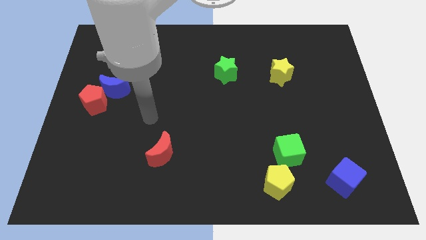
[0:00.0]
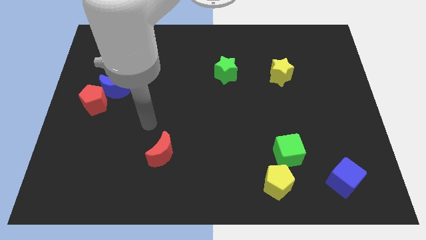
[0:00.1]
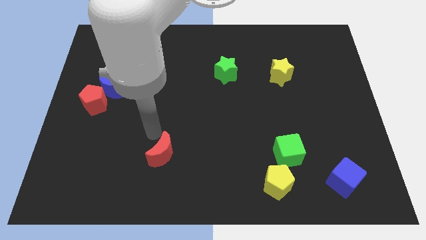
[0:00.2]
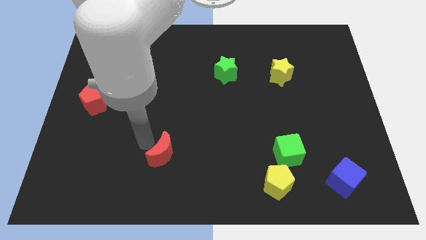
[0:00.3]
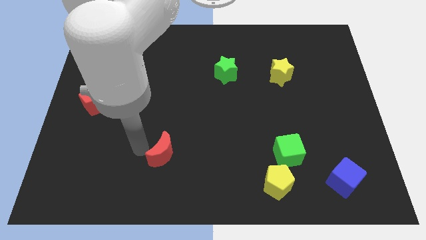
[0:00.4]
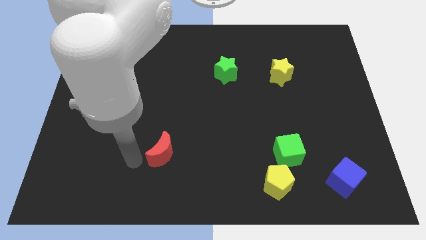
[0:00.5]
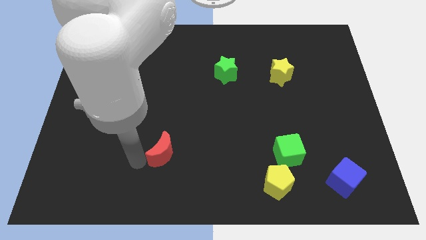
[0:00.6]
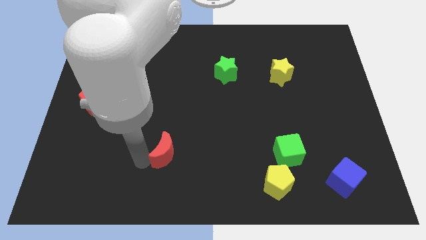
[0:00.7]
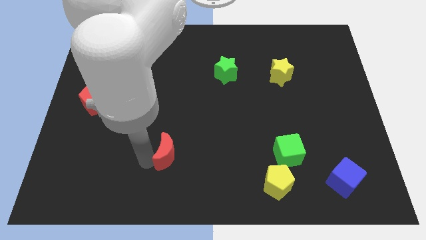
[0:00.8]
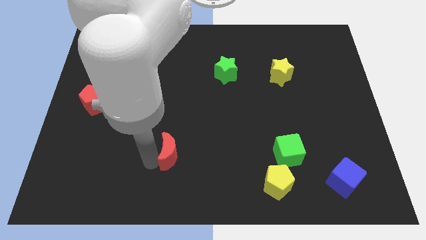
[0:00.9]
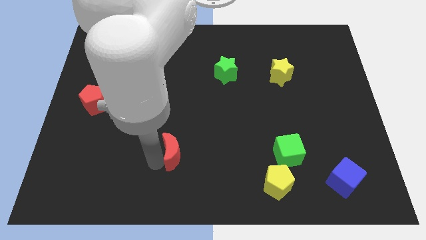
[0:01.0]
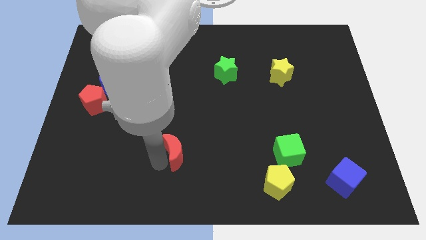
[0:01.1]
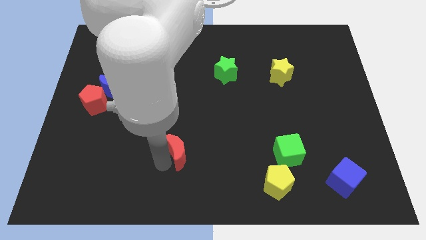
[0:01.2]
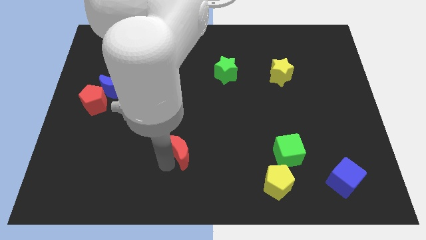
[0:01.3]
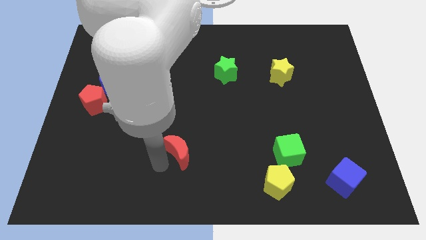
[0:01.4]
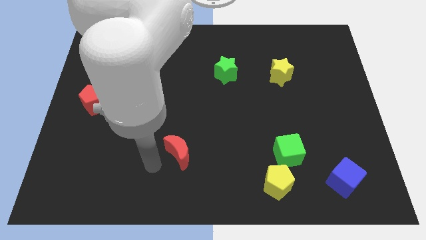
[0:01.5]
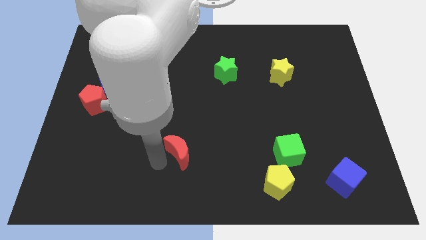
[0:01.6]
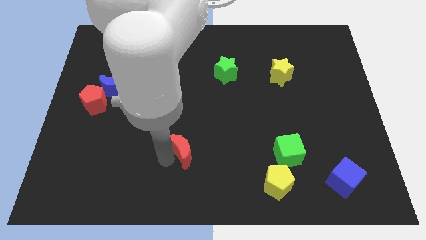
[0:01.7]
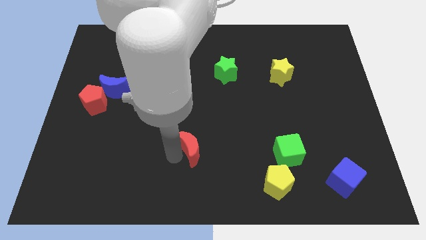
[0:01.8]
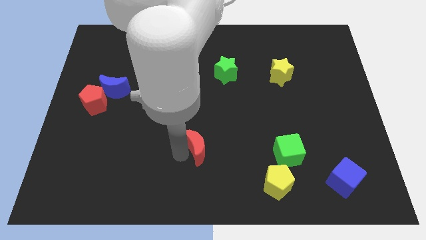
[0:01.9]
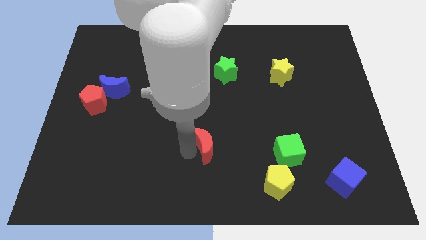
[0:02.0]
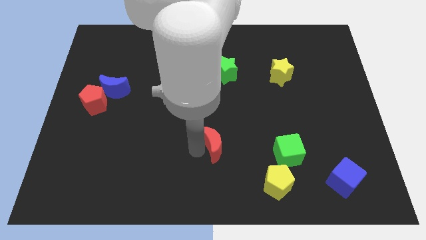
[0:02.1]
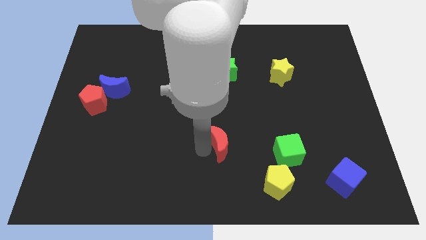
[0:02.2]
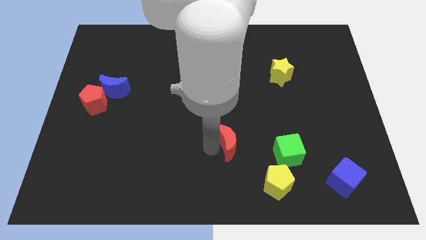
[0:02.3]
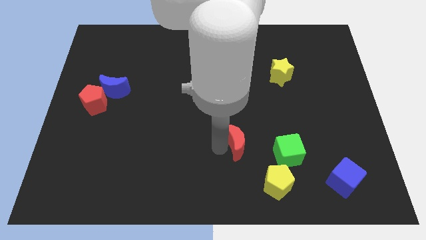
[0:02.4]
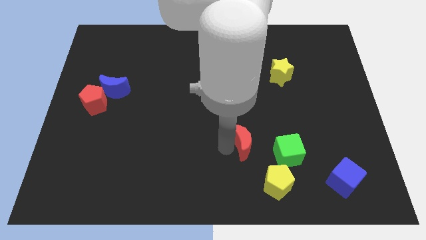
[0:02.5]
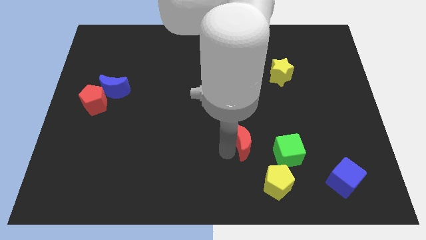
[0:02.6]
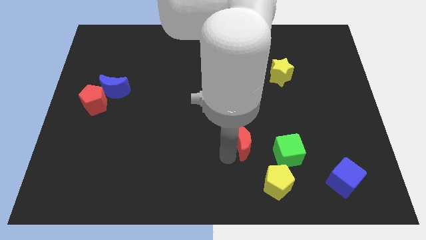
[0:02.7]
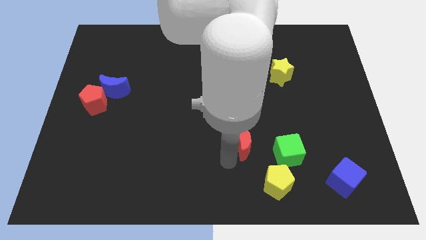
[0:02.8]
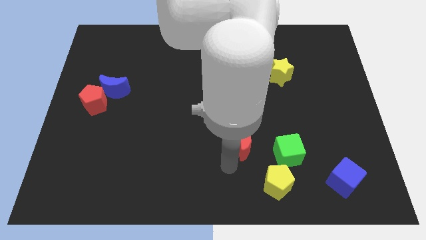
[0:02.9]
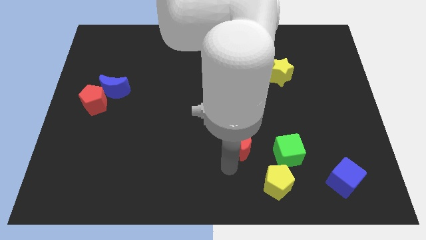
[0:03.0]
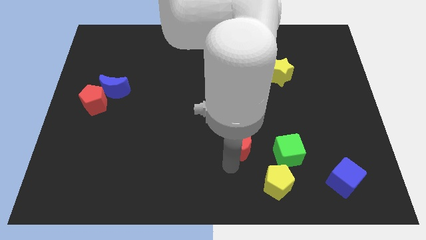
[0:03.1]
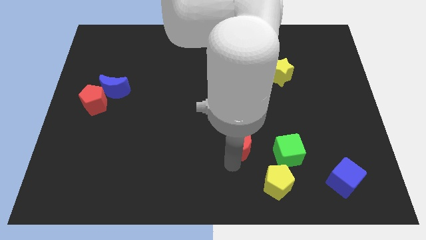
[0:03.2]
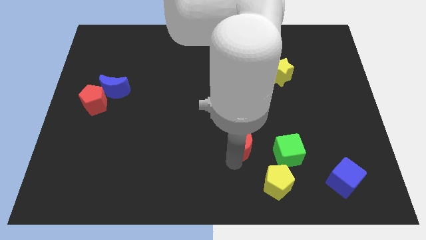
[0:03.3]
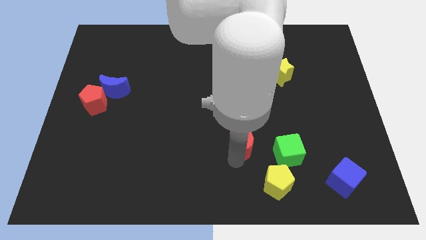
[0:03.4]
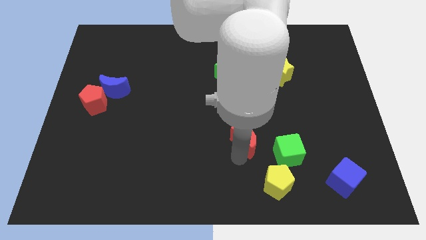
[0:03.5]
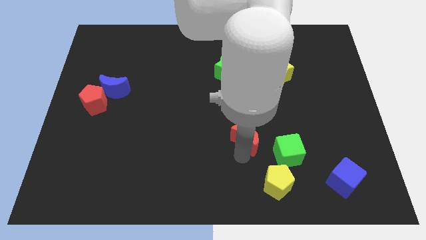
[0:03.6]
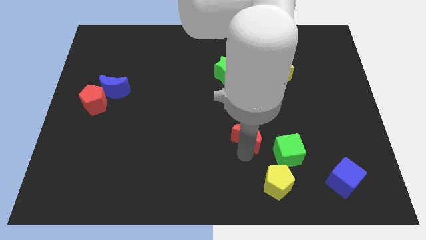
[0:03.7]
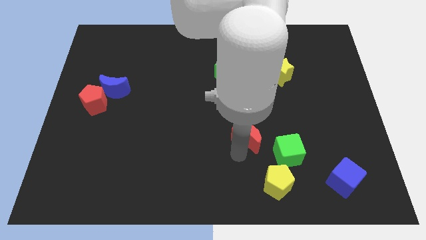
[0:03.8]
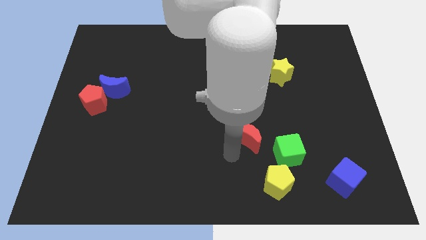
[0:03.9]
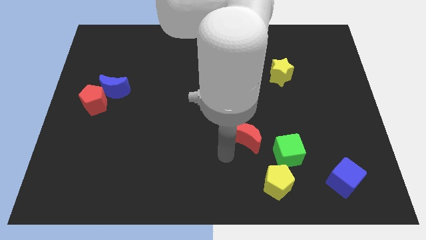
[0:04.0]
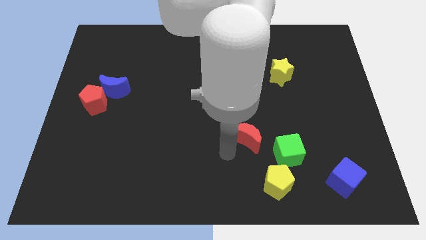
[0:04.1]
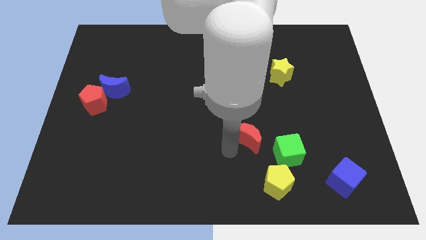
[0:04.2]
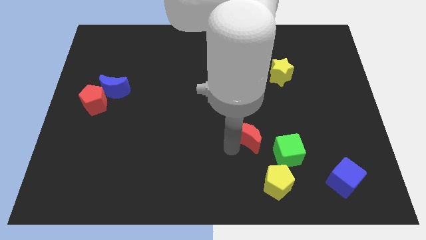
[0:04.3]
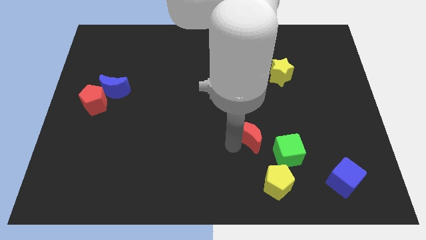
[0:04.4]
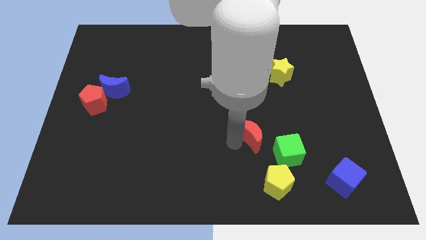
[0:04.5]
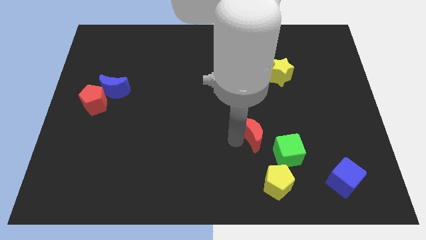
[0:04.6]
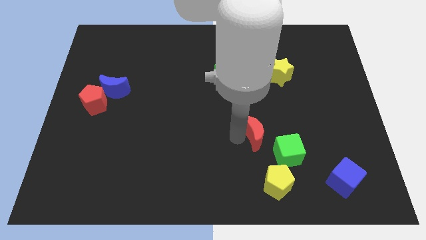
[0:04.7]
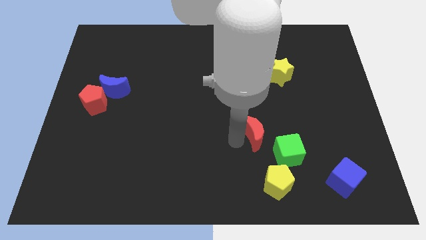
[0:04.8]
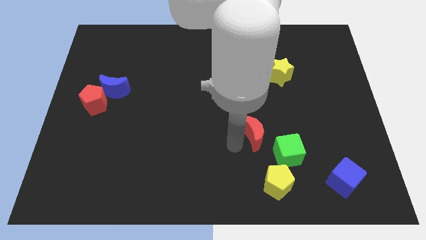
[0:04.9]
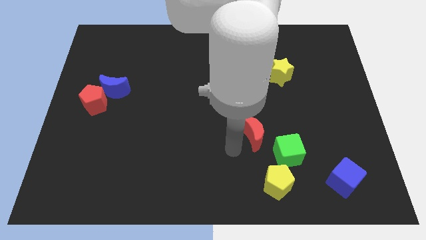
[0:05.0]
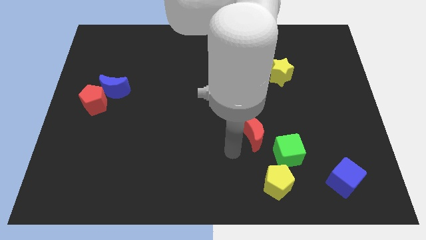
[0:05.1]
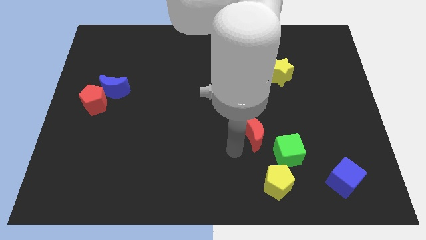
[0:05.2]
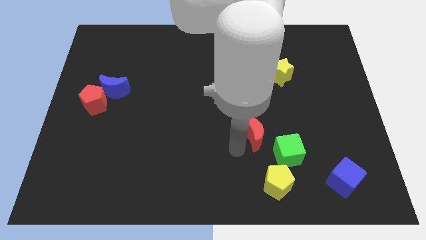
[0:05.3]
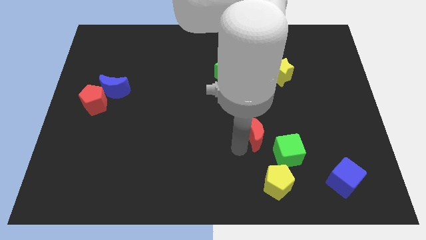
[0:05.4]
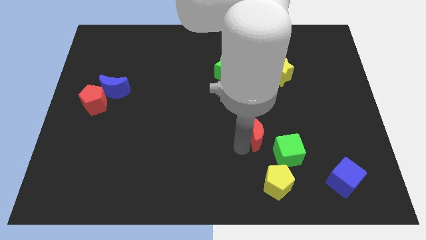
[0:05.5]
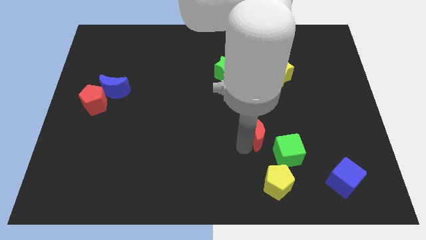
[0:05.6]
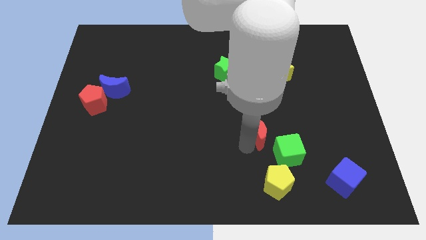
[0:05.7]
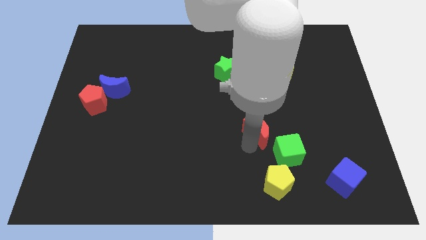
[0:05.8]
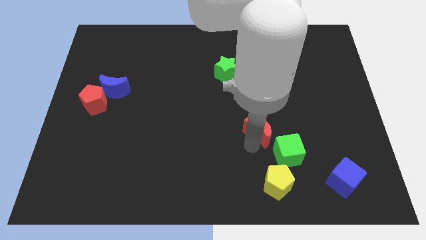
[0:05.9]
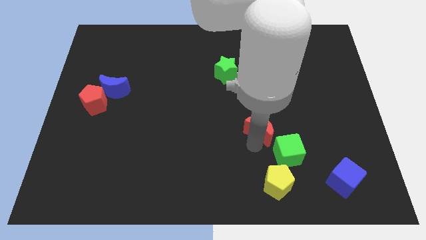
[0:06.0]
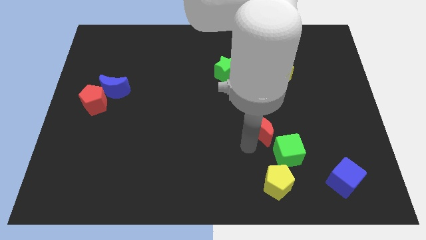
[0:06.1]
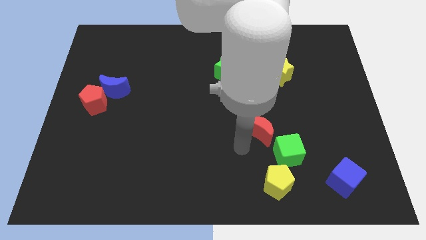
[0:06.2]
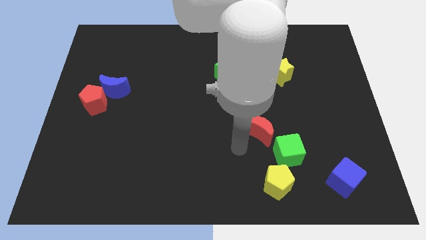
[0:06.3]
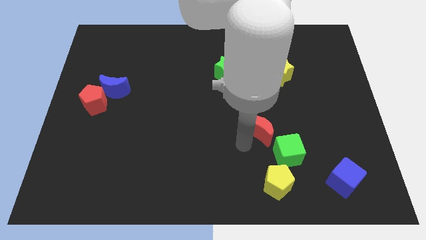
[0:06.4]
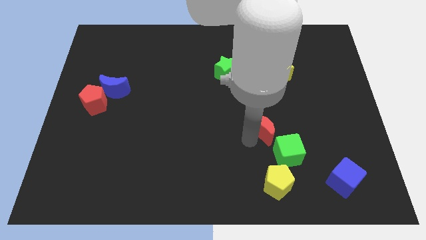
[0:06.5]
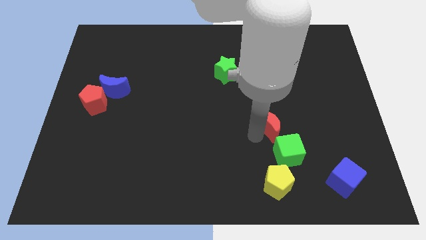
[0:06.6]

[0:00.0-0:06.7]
push the red moon to the top side of the green cube

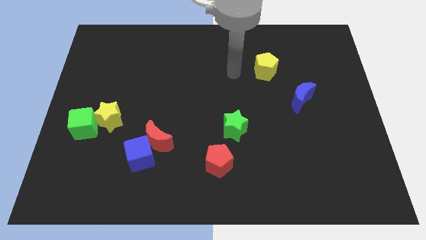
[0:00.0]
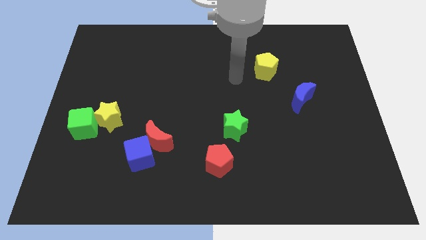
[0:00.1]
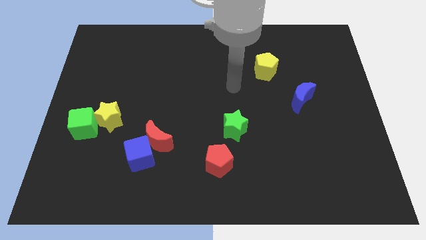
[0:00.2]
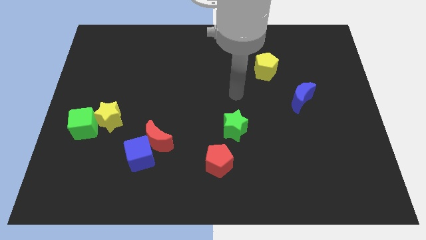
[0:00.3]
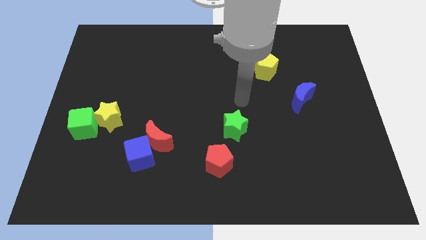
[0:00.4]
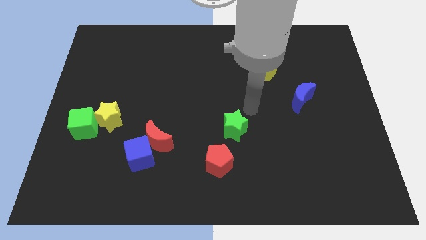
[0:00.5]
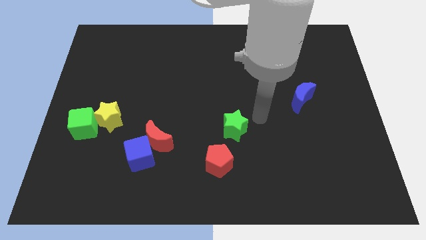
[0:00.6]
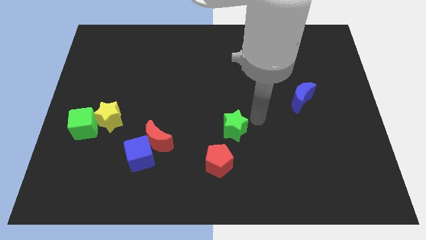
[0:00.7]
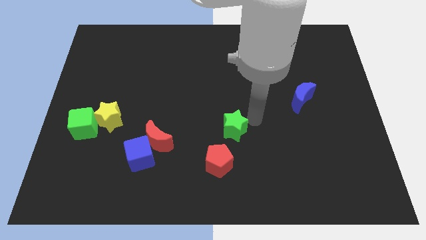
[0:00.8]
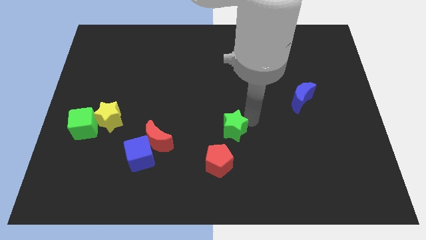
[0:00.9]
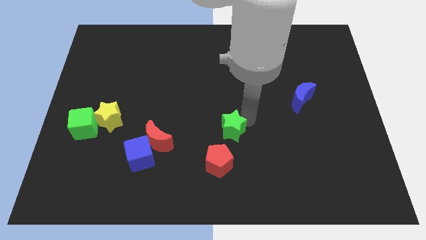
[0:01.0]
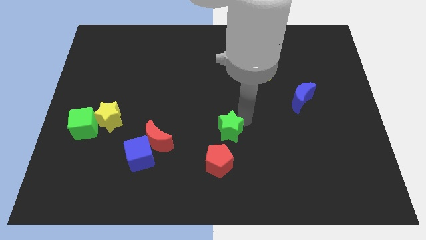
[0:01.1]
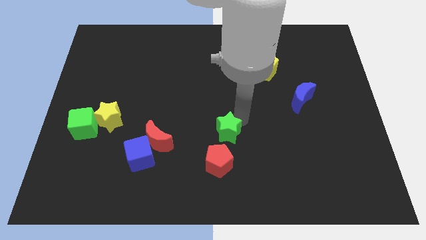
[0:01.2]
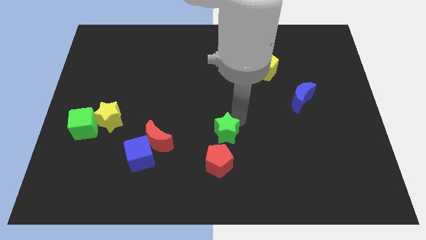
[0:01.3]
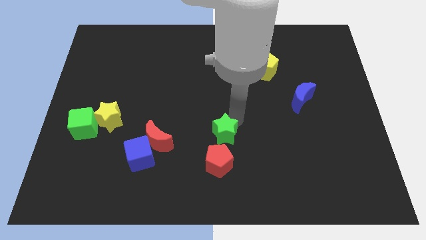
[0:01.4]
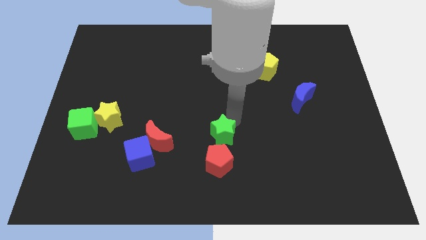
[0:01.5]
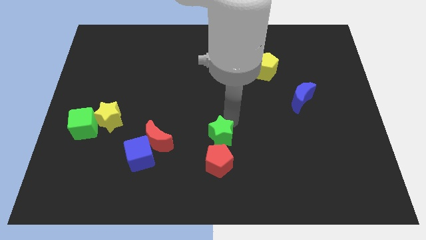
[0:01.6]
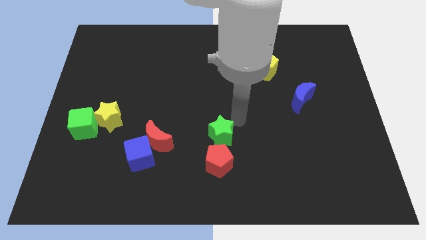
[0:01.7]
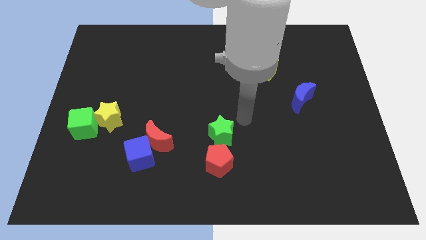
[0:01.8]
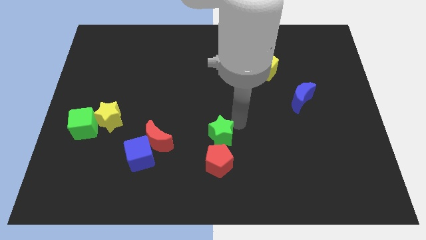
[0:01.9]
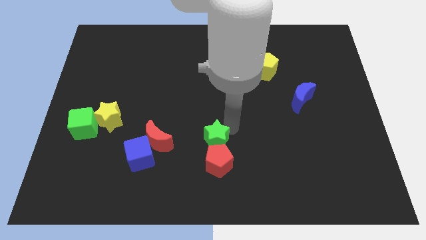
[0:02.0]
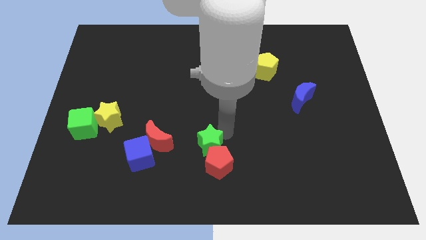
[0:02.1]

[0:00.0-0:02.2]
move the green star to the right of the blue cube
